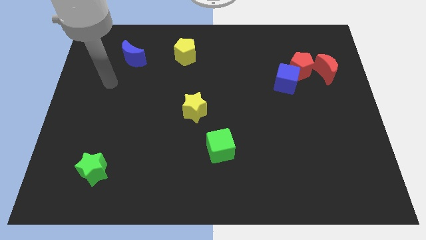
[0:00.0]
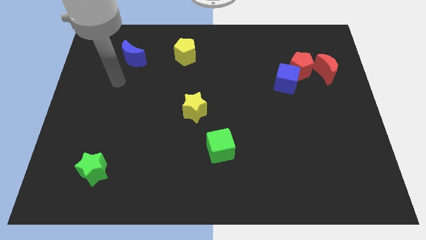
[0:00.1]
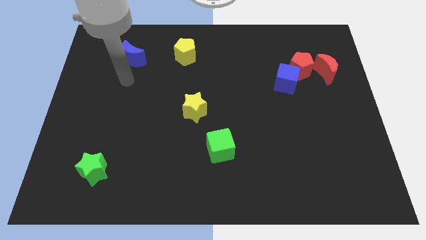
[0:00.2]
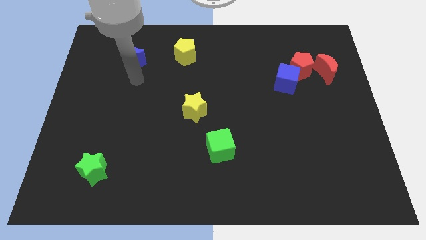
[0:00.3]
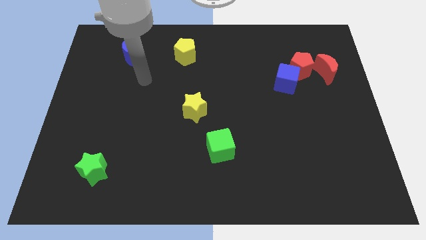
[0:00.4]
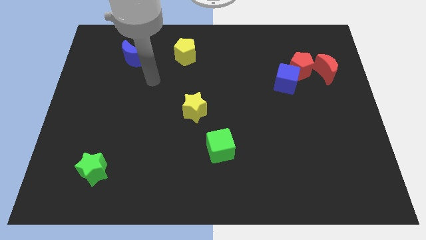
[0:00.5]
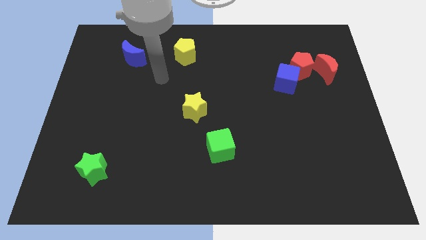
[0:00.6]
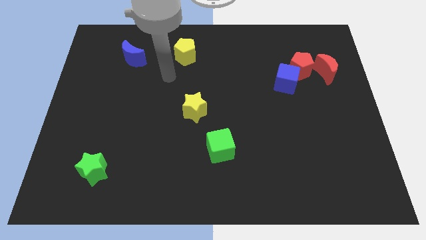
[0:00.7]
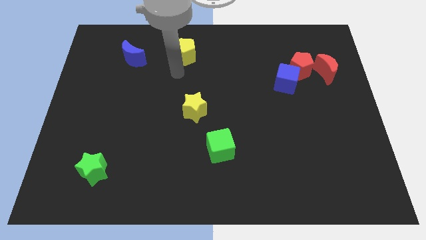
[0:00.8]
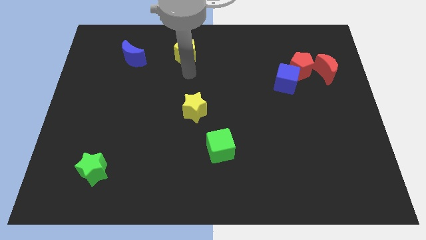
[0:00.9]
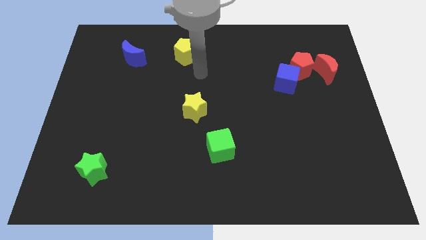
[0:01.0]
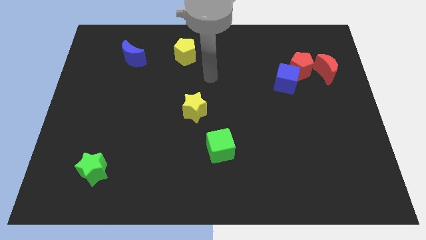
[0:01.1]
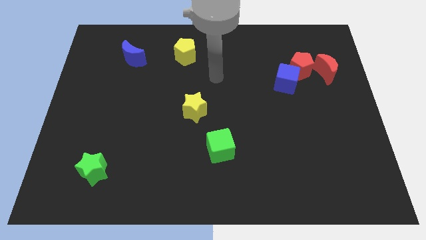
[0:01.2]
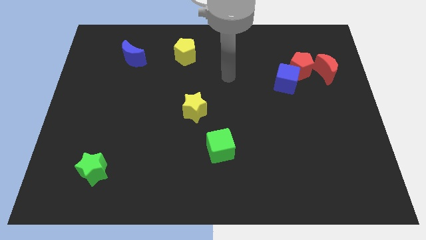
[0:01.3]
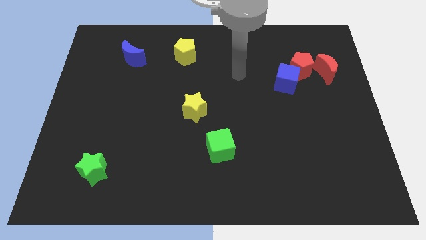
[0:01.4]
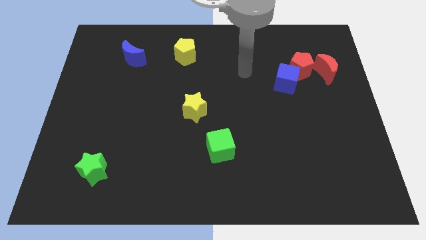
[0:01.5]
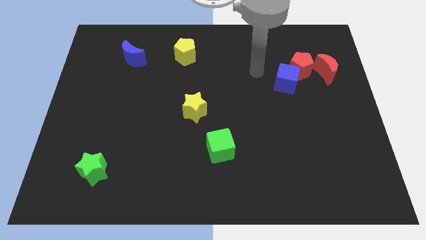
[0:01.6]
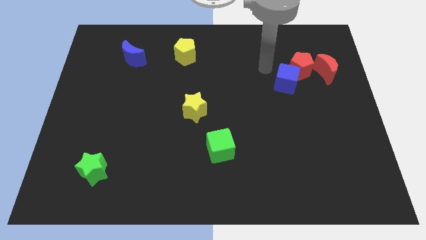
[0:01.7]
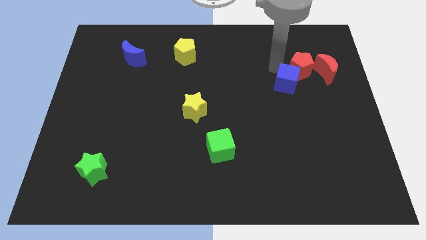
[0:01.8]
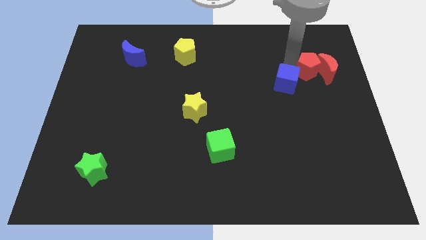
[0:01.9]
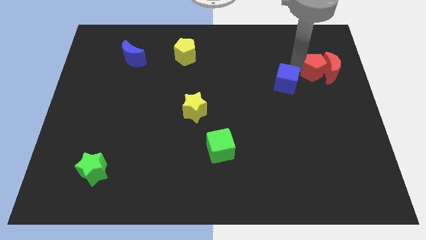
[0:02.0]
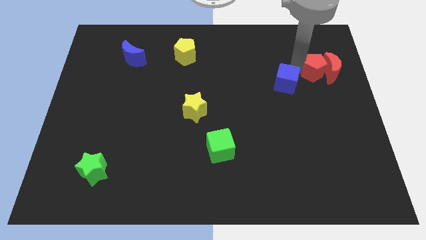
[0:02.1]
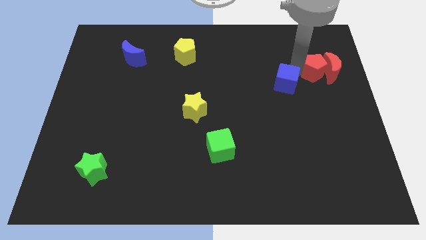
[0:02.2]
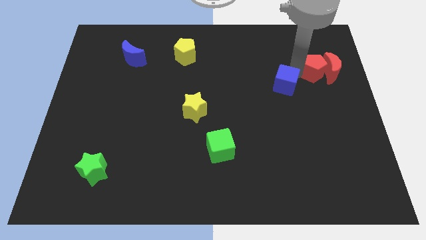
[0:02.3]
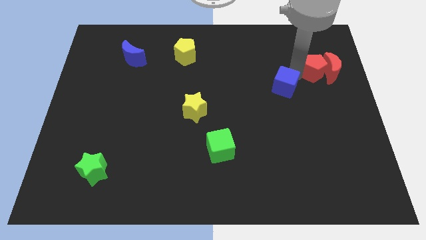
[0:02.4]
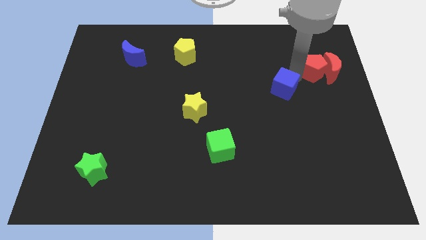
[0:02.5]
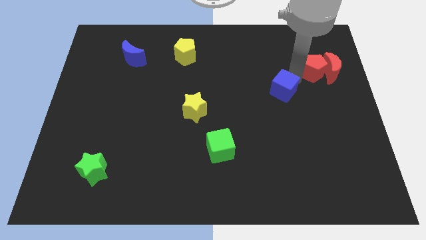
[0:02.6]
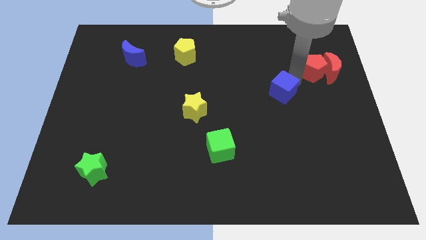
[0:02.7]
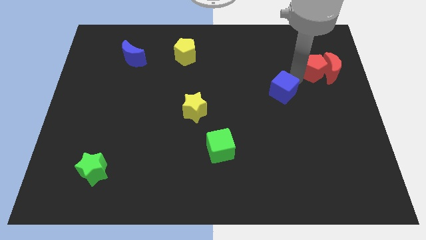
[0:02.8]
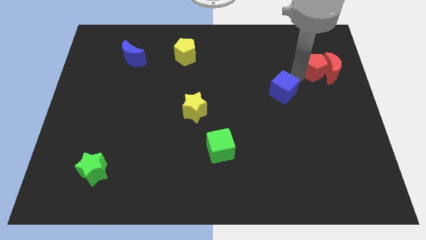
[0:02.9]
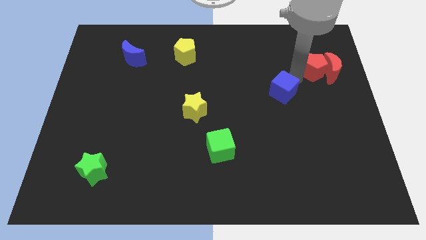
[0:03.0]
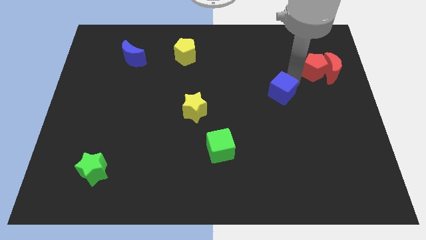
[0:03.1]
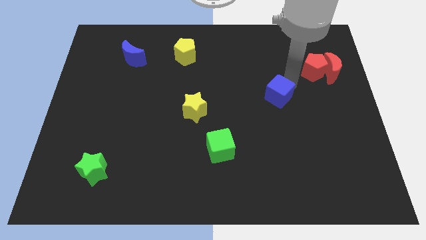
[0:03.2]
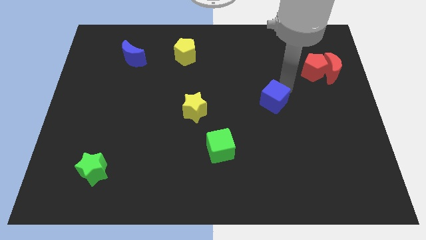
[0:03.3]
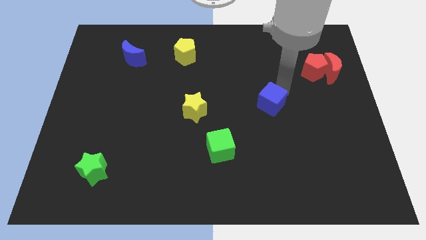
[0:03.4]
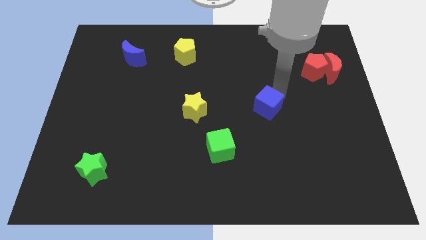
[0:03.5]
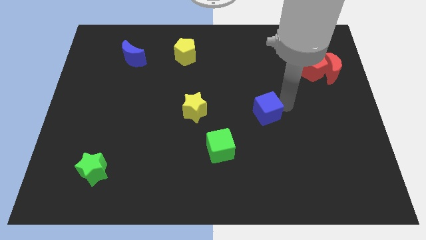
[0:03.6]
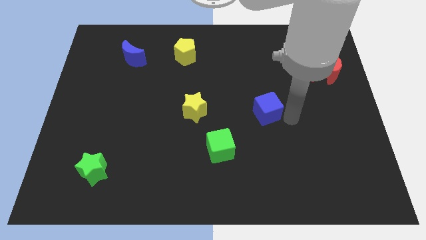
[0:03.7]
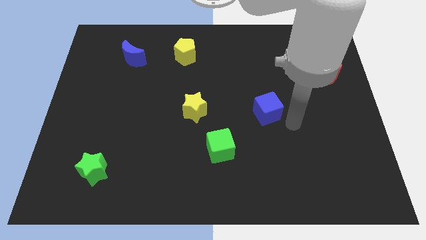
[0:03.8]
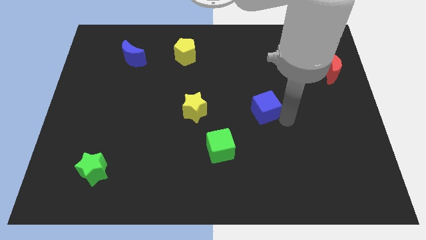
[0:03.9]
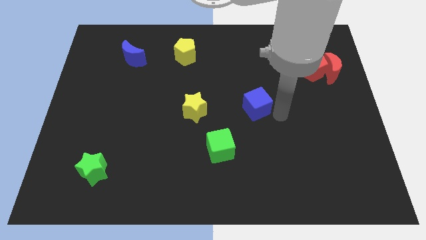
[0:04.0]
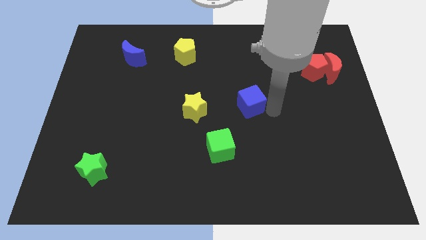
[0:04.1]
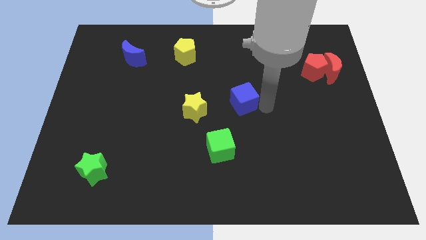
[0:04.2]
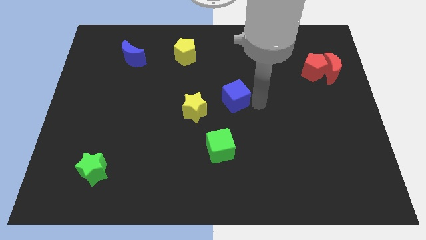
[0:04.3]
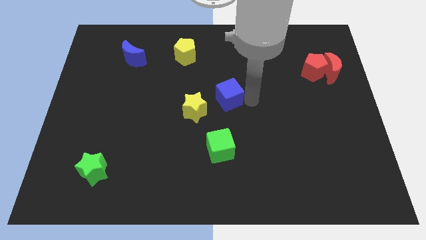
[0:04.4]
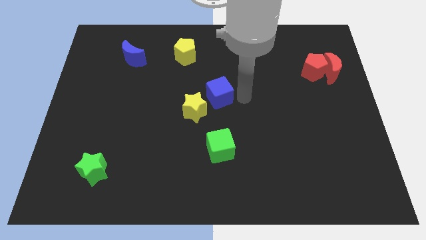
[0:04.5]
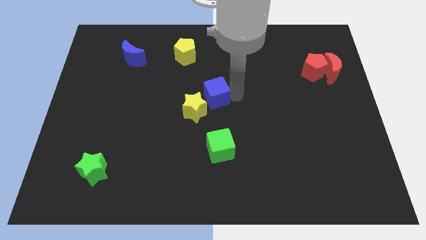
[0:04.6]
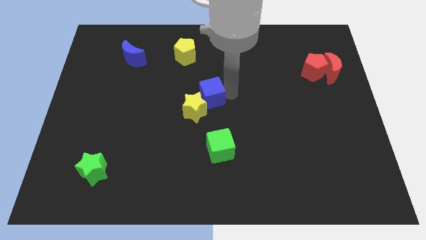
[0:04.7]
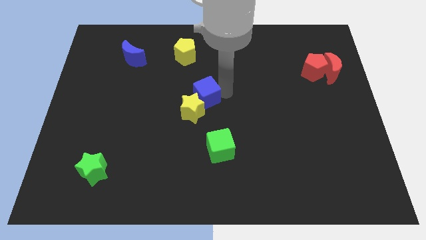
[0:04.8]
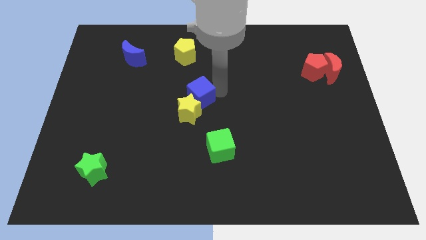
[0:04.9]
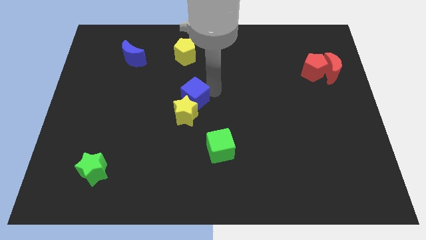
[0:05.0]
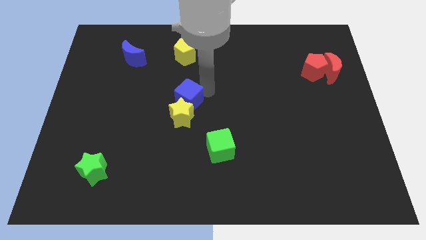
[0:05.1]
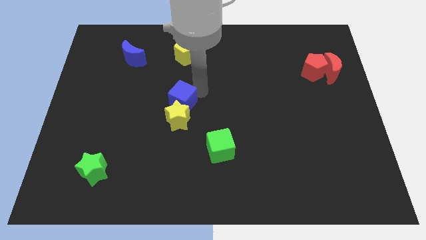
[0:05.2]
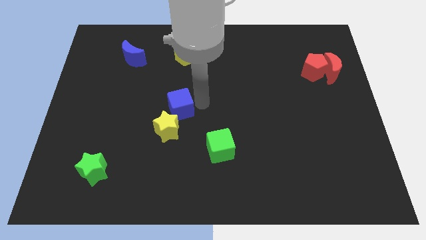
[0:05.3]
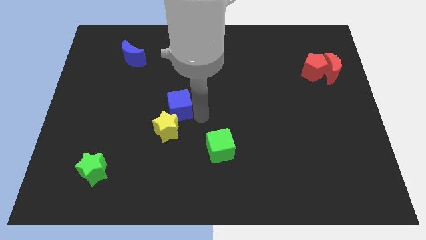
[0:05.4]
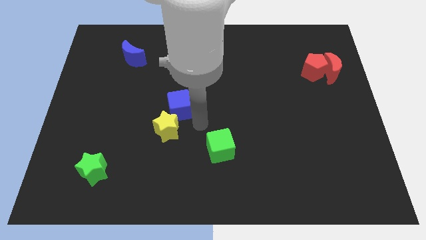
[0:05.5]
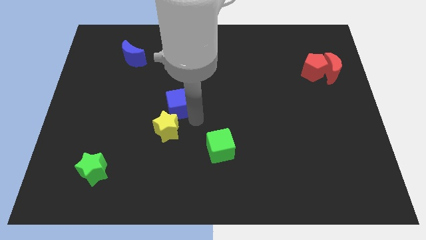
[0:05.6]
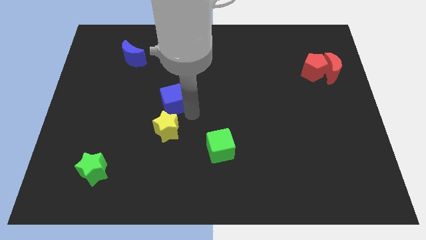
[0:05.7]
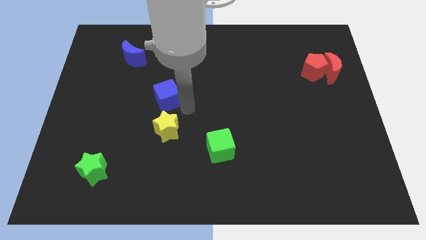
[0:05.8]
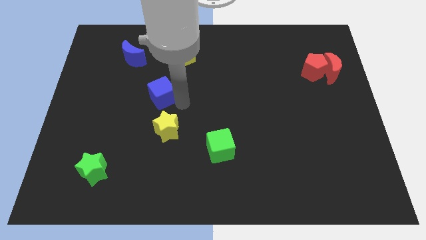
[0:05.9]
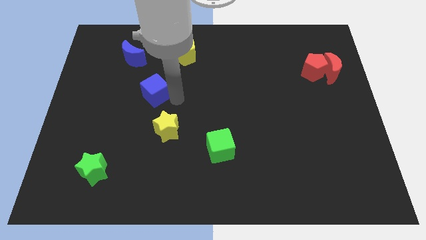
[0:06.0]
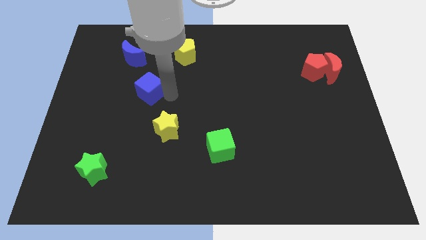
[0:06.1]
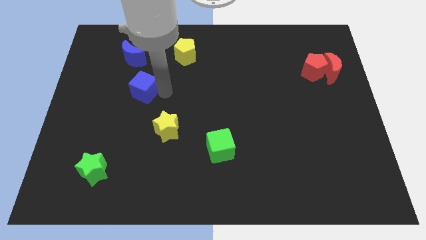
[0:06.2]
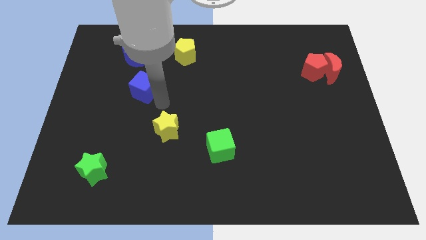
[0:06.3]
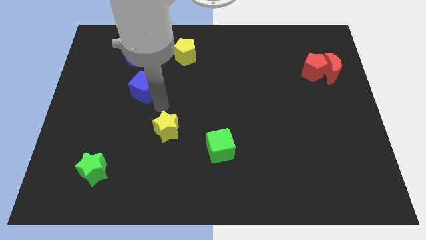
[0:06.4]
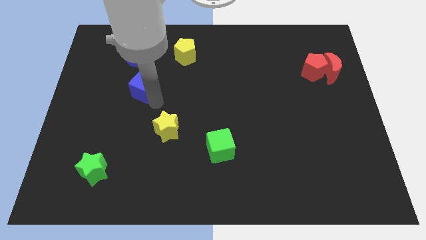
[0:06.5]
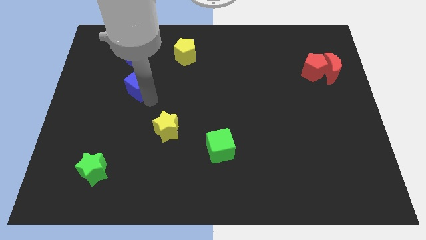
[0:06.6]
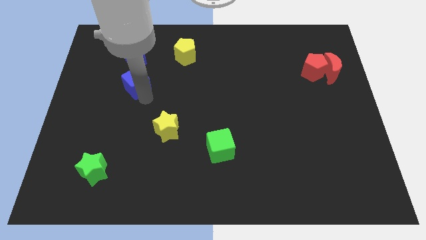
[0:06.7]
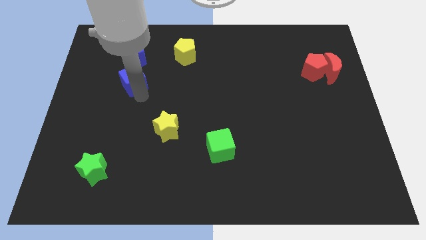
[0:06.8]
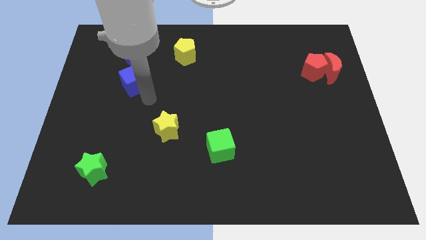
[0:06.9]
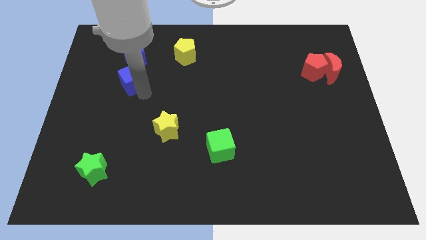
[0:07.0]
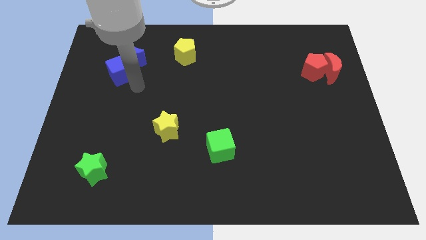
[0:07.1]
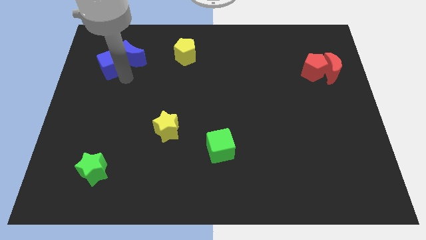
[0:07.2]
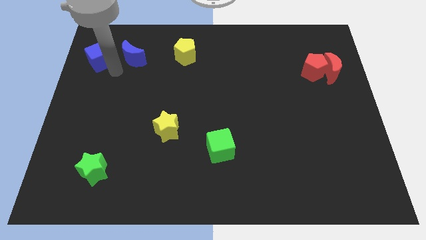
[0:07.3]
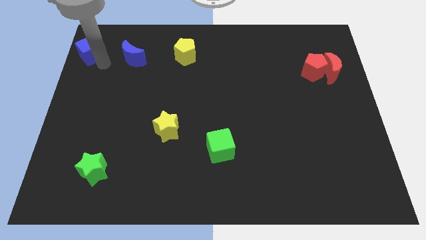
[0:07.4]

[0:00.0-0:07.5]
push the blue cube to the top left corner
